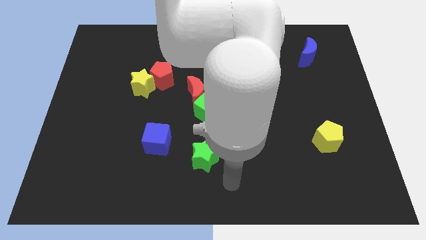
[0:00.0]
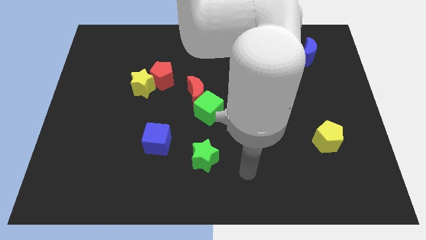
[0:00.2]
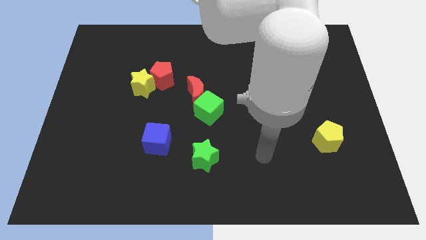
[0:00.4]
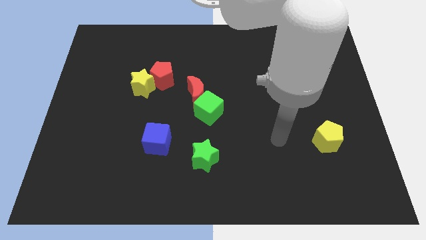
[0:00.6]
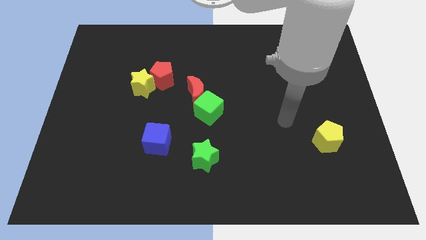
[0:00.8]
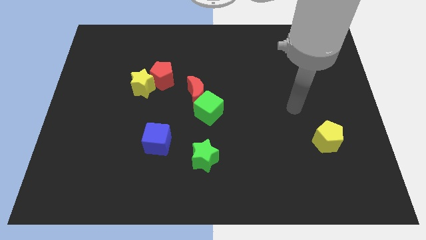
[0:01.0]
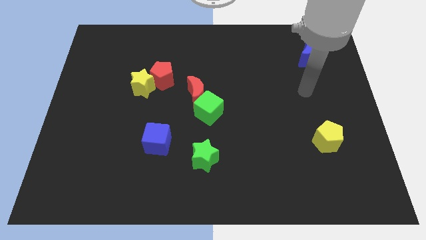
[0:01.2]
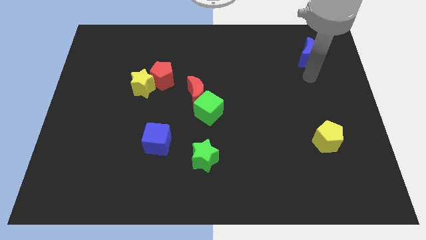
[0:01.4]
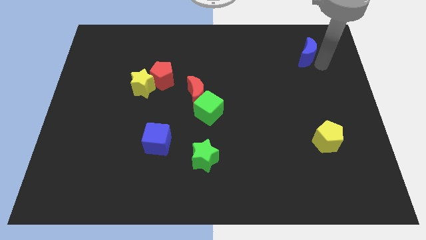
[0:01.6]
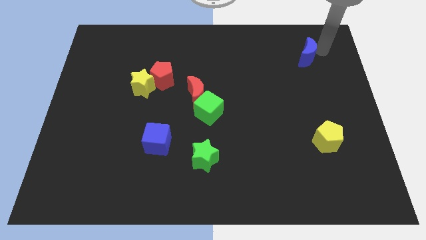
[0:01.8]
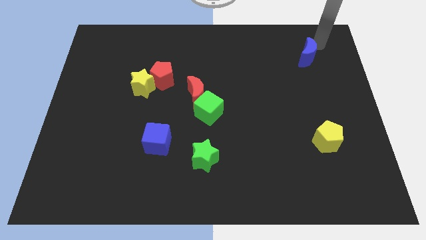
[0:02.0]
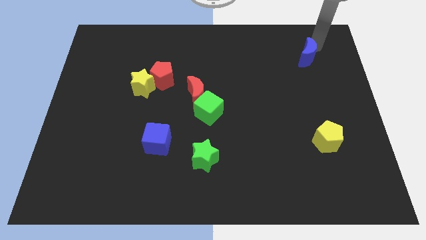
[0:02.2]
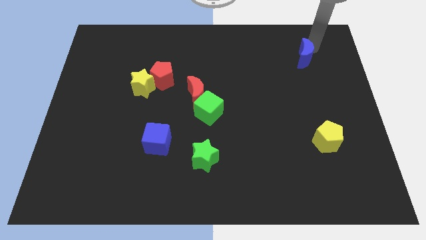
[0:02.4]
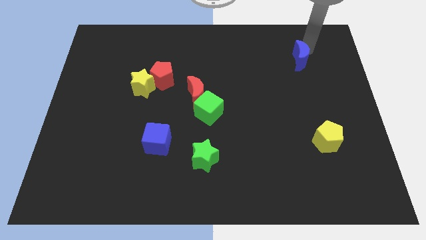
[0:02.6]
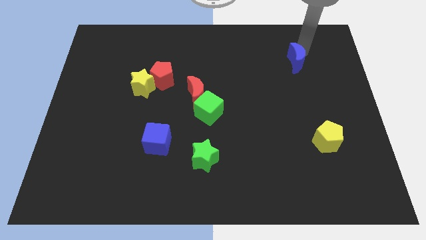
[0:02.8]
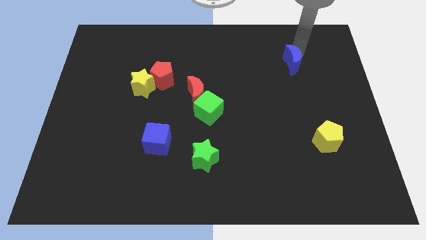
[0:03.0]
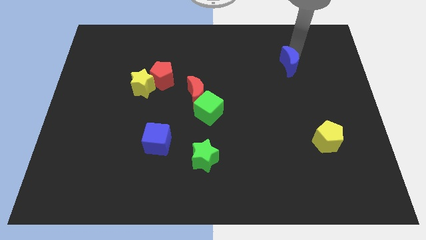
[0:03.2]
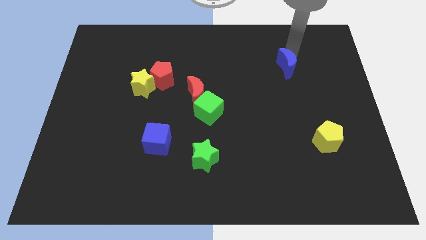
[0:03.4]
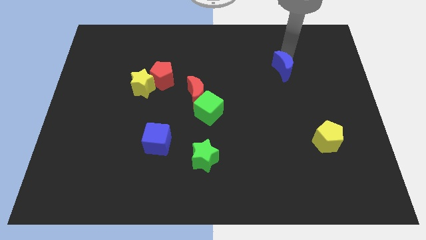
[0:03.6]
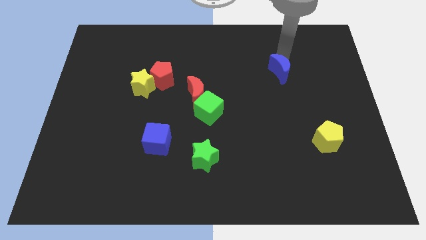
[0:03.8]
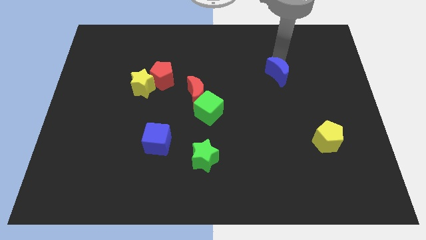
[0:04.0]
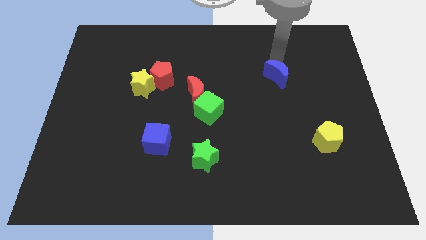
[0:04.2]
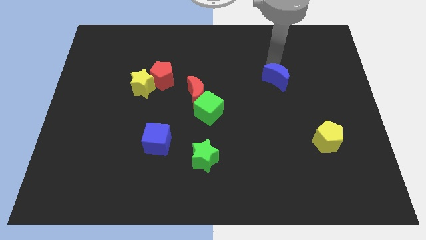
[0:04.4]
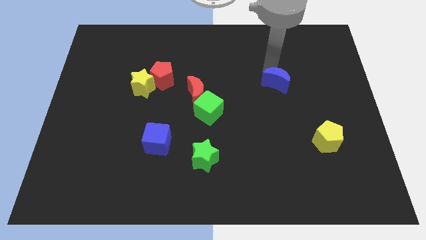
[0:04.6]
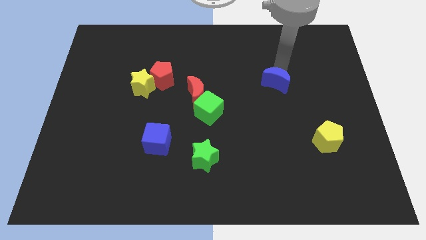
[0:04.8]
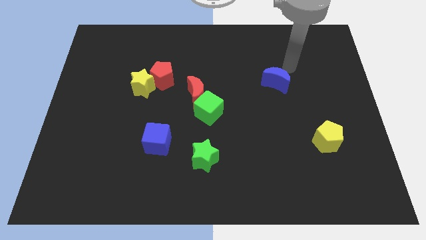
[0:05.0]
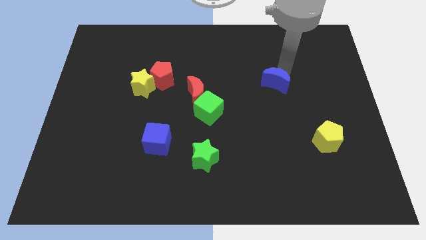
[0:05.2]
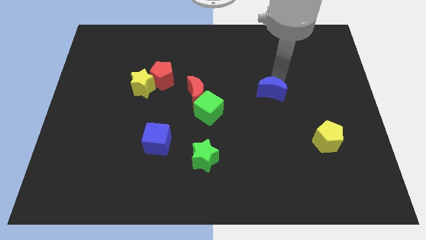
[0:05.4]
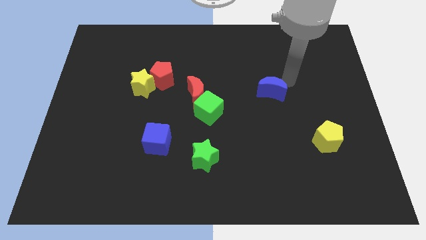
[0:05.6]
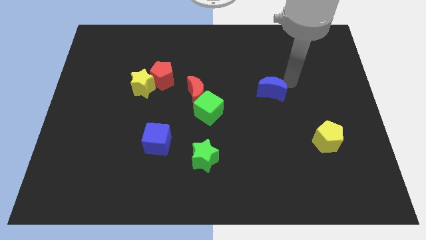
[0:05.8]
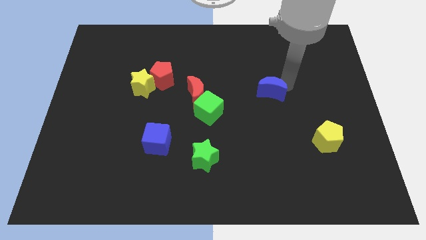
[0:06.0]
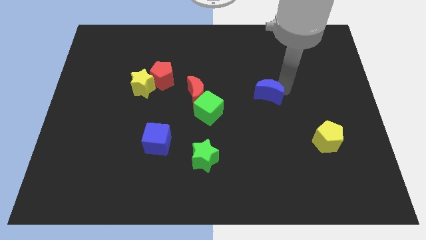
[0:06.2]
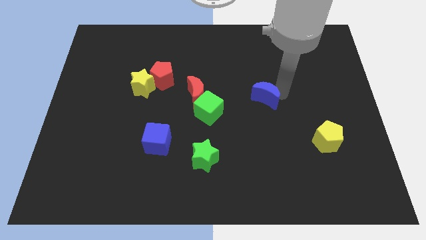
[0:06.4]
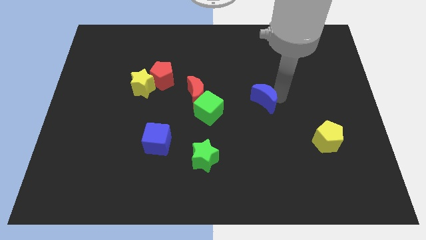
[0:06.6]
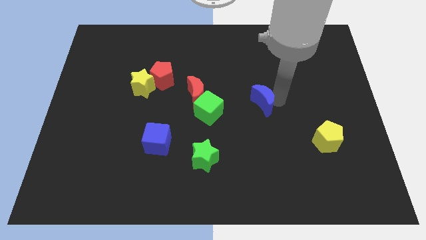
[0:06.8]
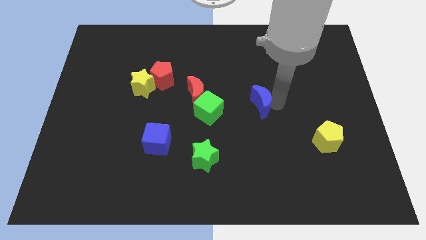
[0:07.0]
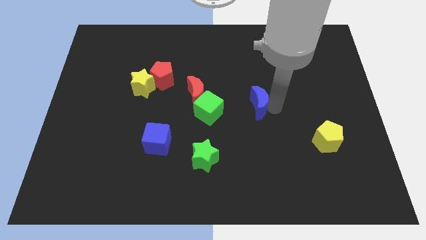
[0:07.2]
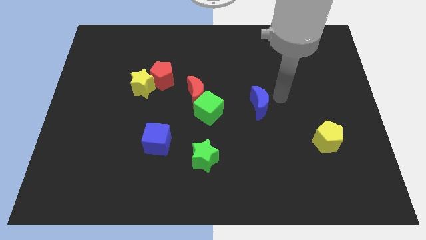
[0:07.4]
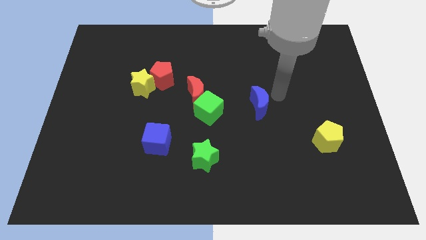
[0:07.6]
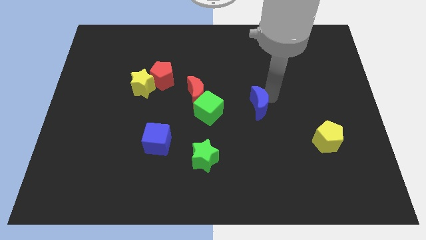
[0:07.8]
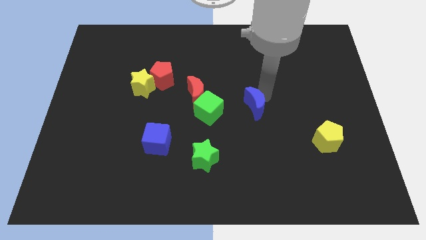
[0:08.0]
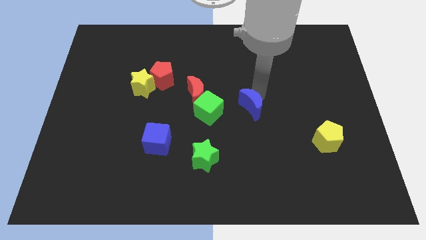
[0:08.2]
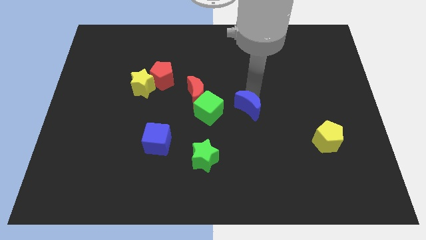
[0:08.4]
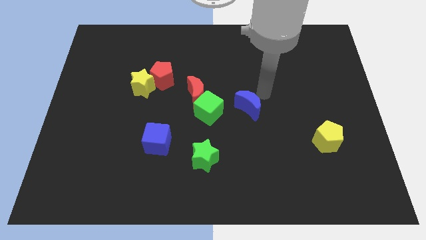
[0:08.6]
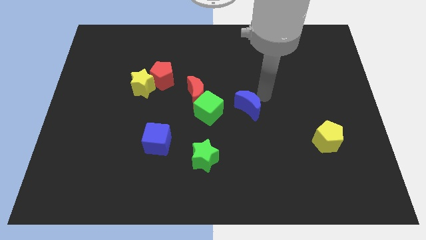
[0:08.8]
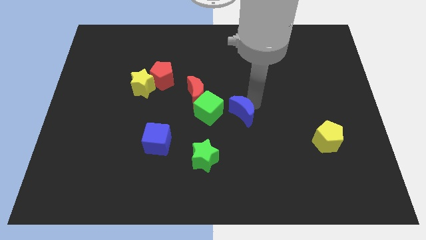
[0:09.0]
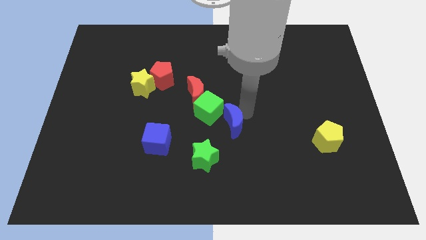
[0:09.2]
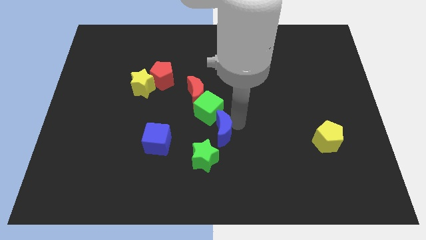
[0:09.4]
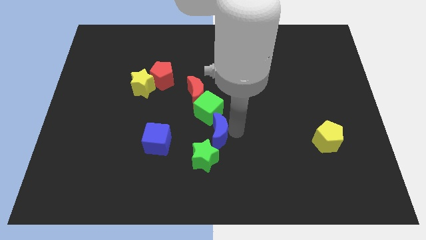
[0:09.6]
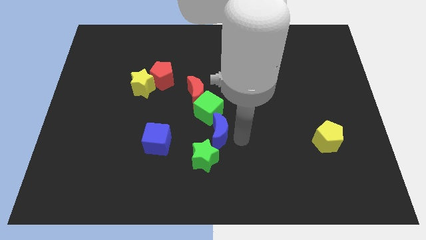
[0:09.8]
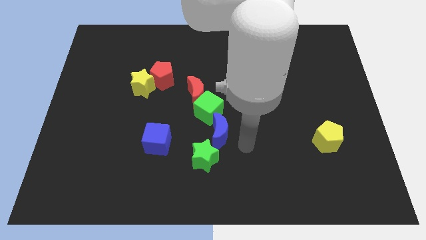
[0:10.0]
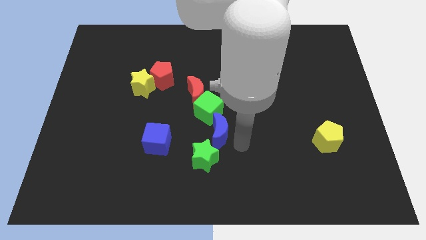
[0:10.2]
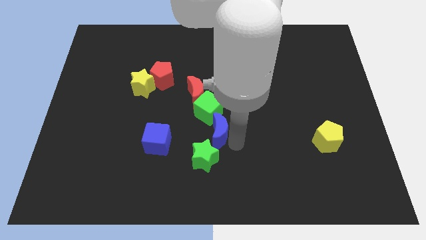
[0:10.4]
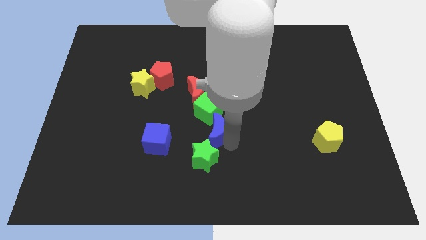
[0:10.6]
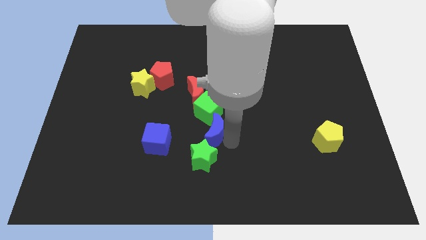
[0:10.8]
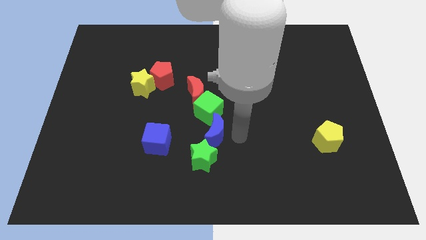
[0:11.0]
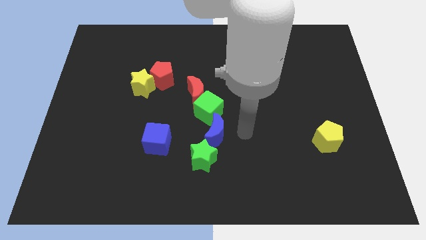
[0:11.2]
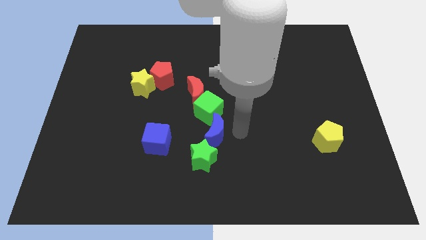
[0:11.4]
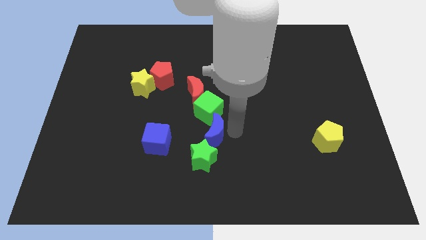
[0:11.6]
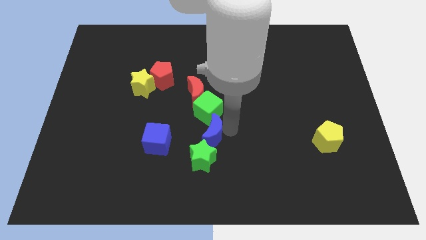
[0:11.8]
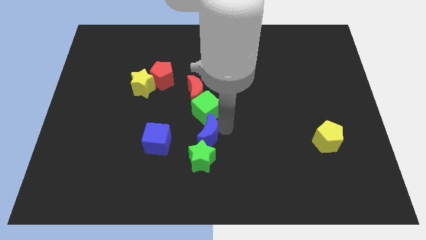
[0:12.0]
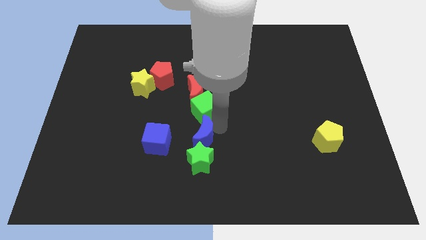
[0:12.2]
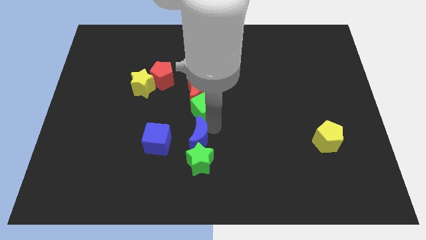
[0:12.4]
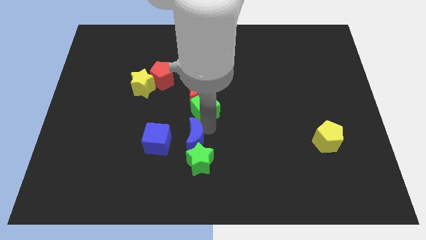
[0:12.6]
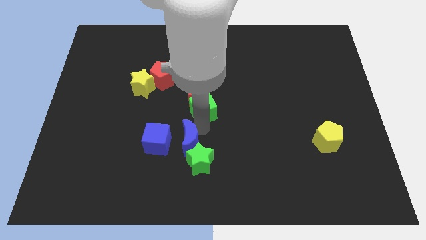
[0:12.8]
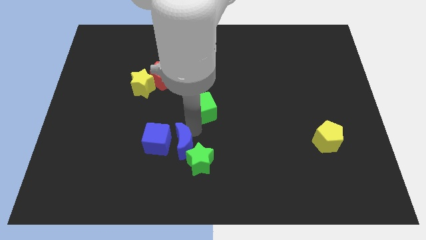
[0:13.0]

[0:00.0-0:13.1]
slide the blue moon left of the green star
